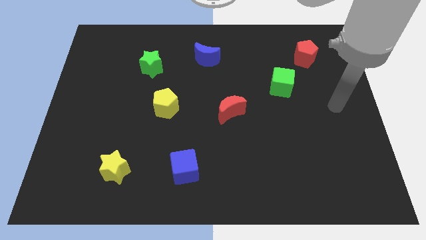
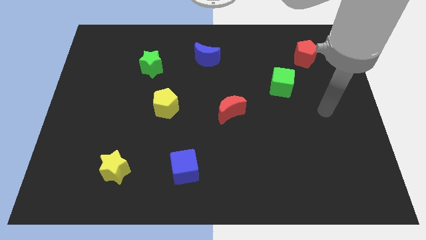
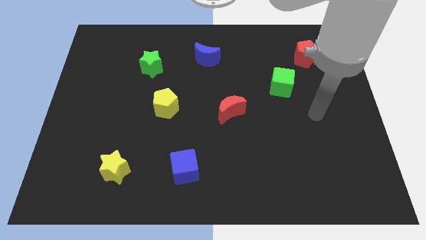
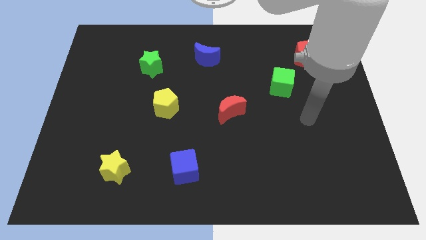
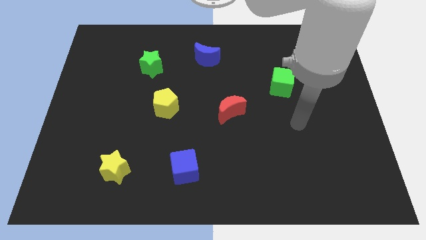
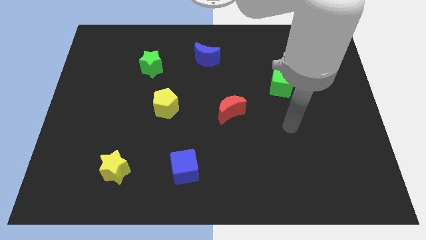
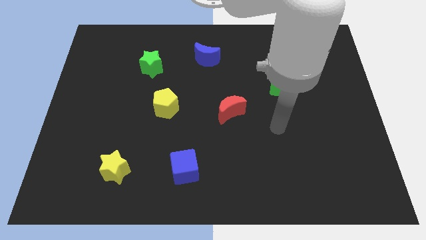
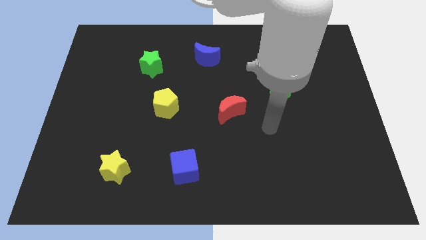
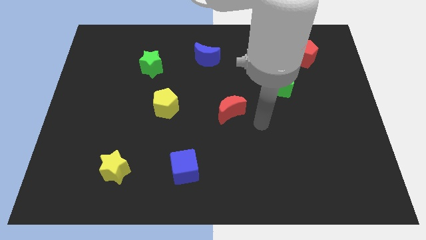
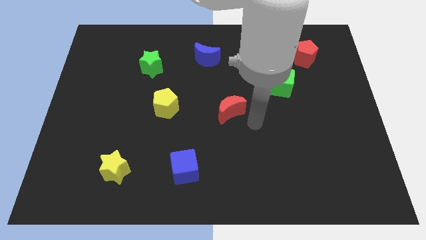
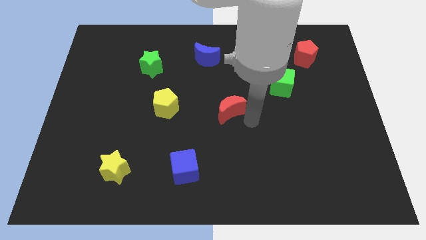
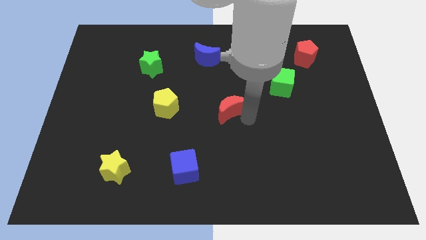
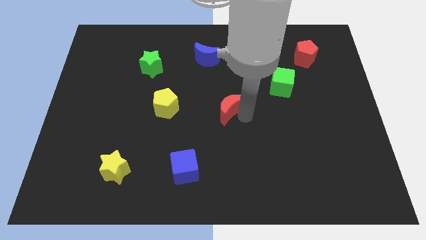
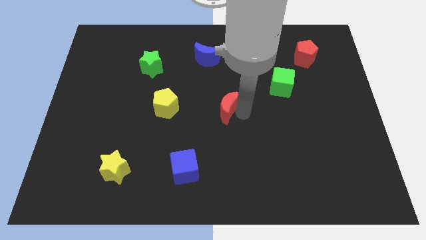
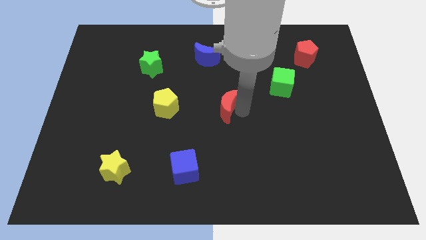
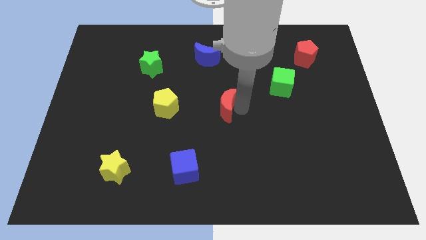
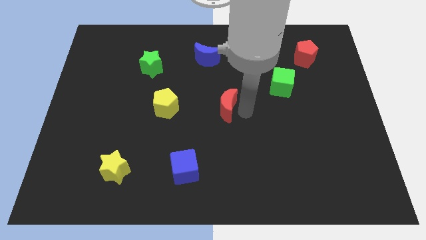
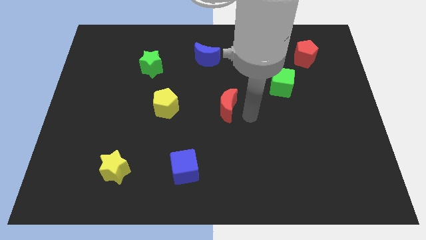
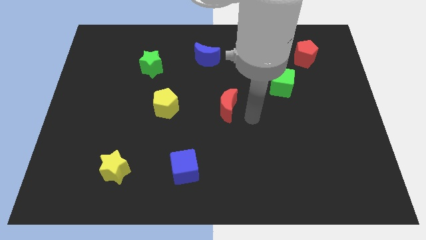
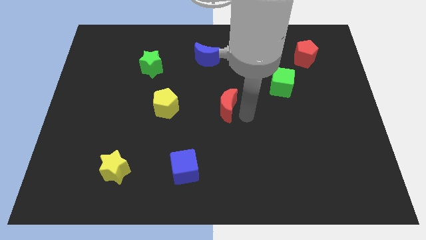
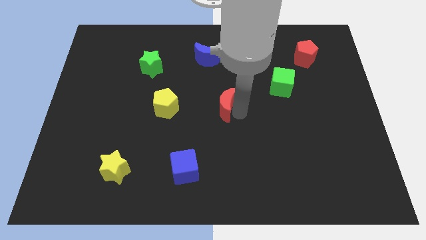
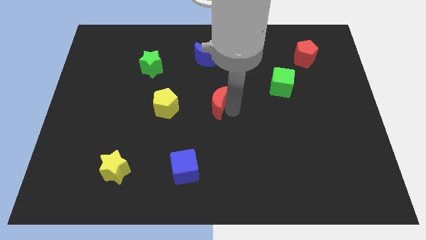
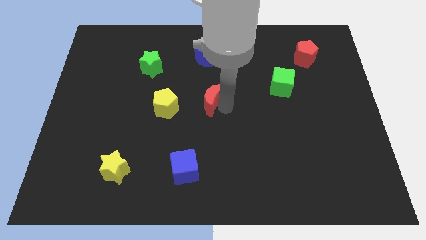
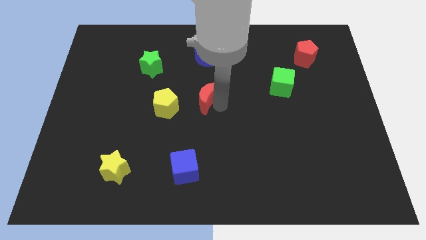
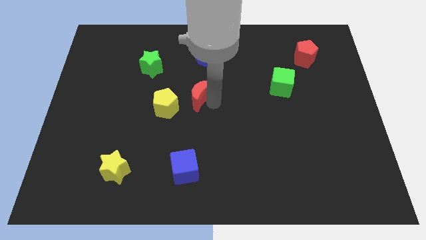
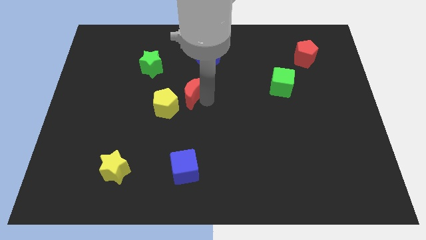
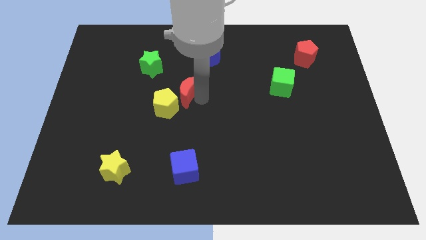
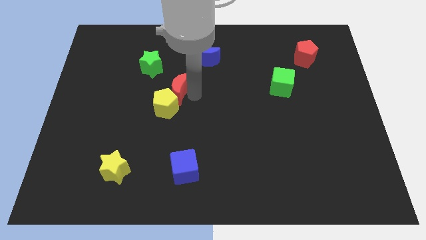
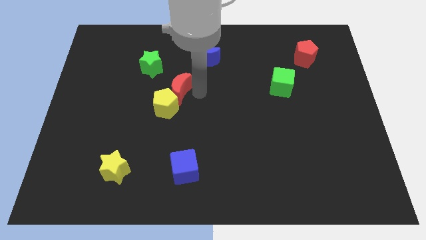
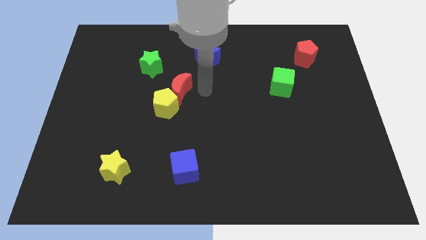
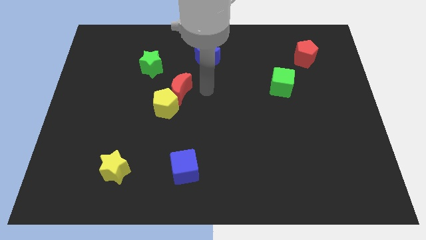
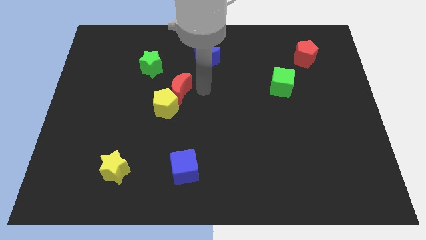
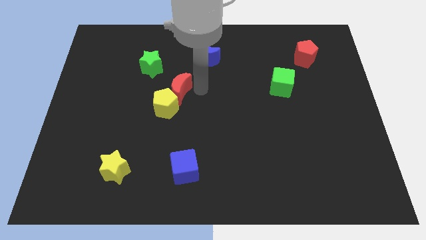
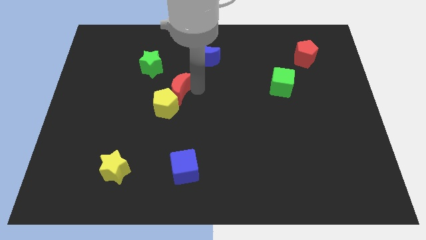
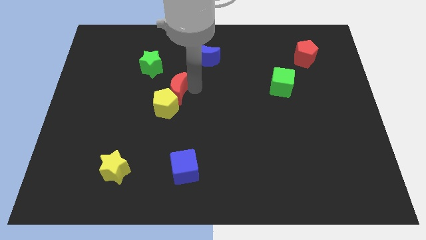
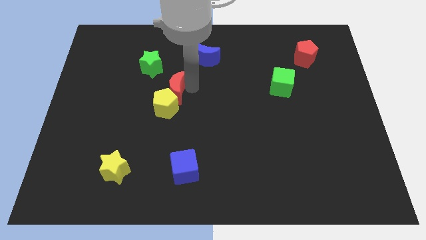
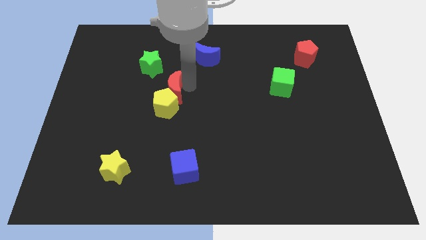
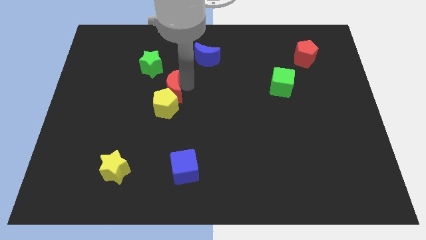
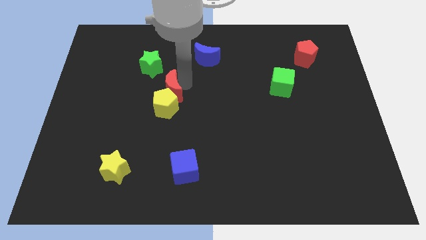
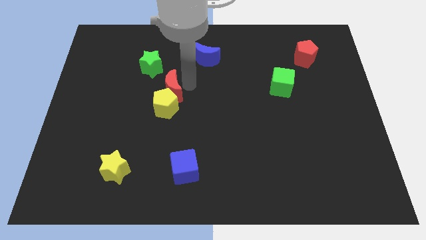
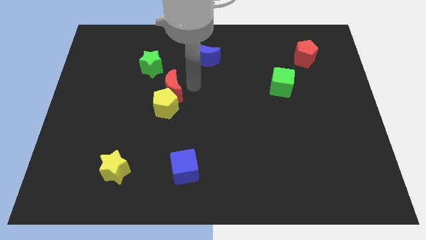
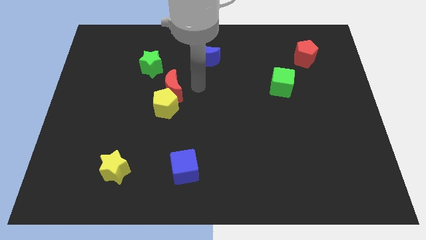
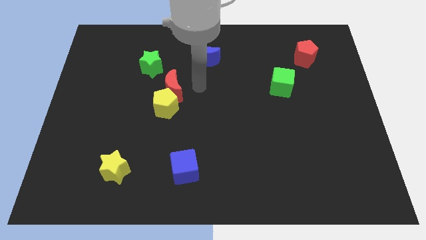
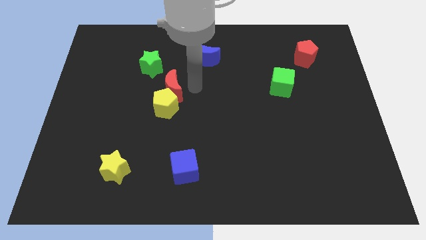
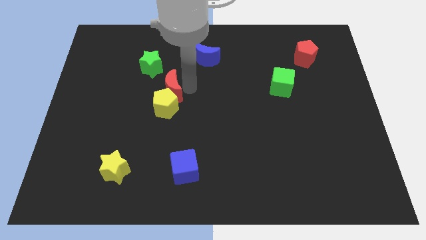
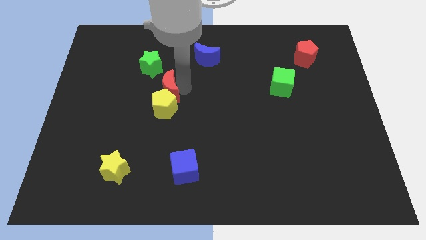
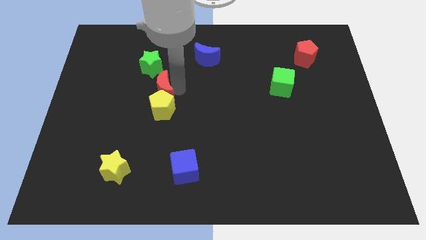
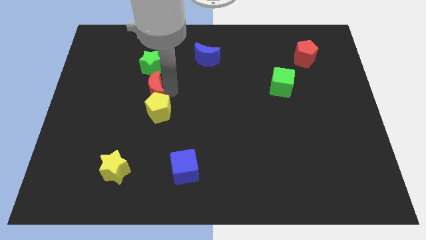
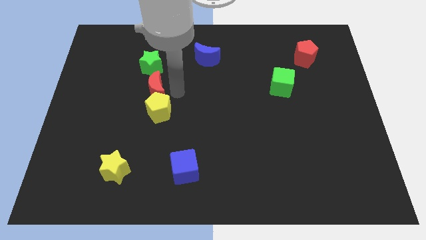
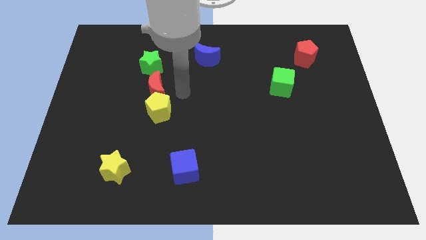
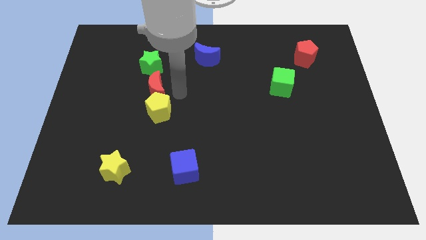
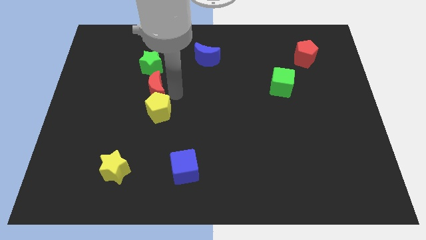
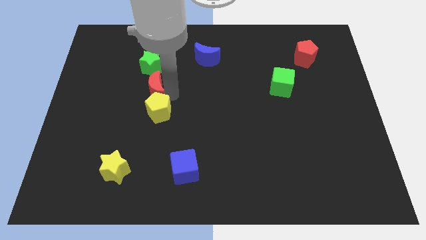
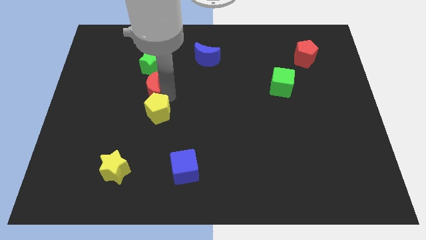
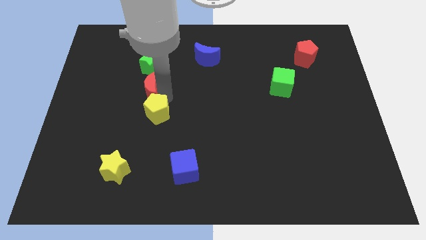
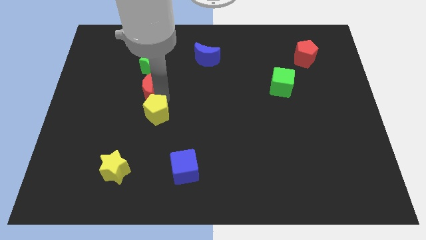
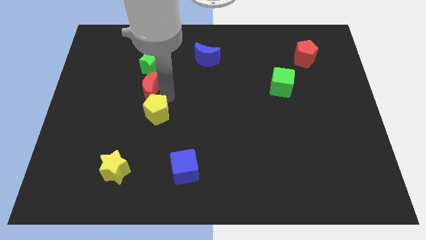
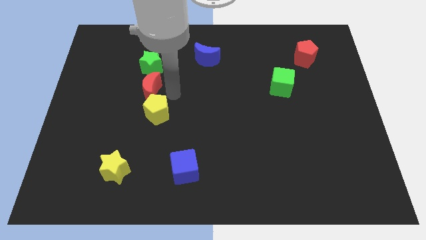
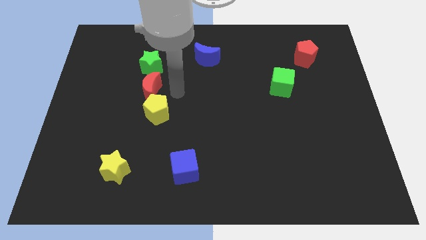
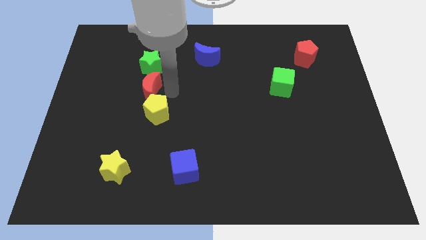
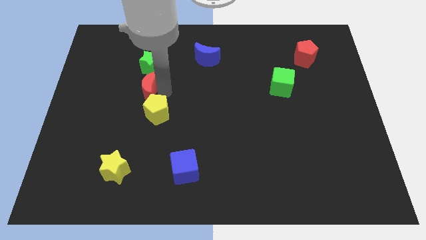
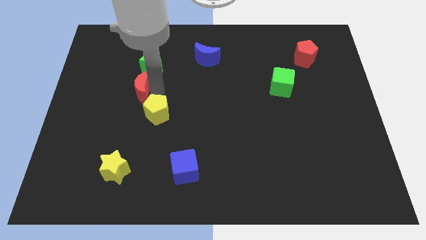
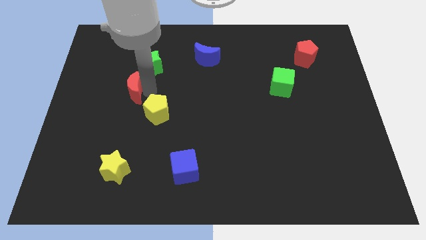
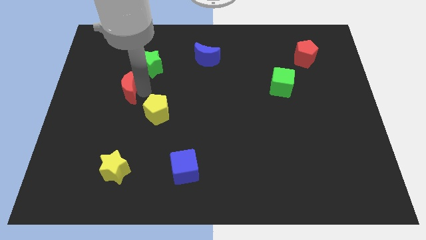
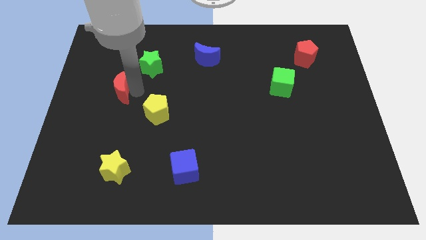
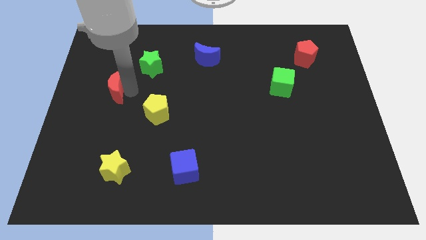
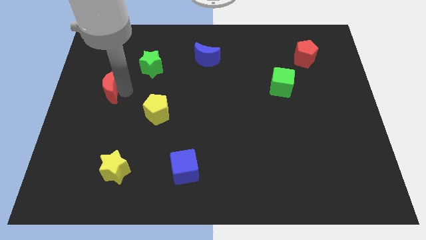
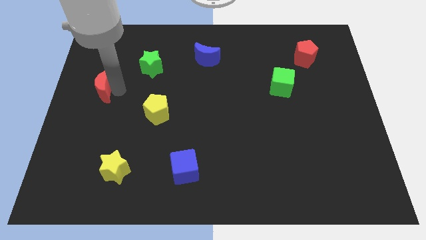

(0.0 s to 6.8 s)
put the red moon to the left side
